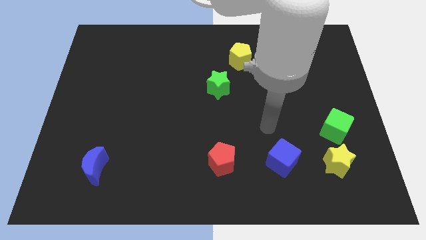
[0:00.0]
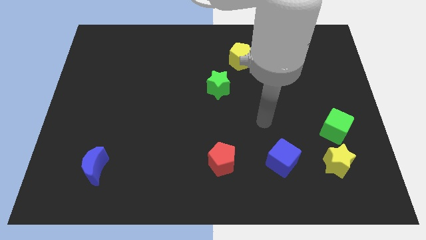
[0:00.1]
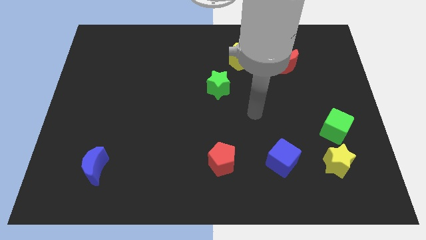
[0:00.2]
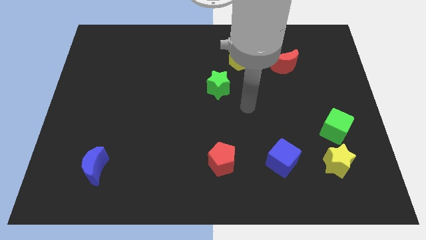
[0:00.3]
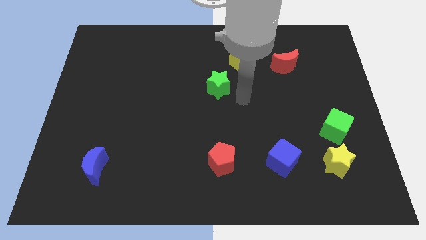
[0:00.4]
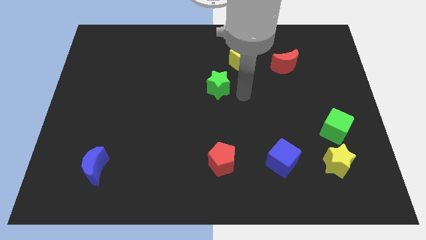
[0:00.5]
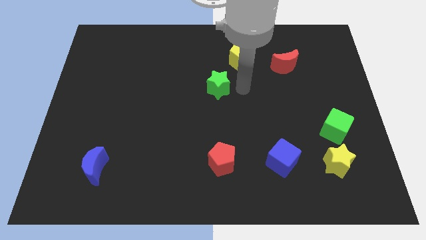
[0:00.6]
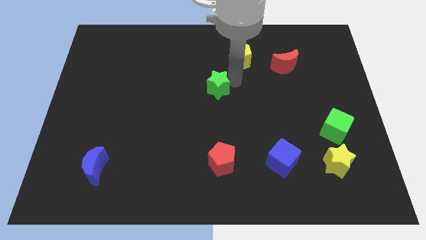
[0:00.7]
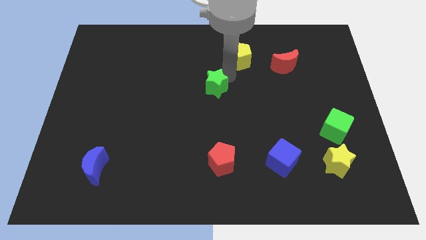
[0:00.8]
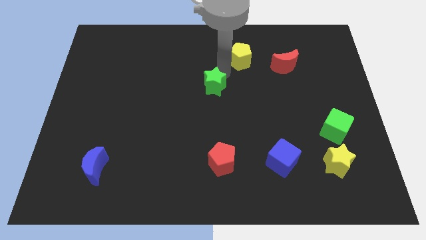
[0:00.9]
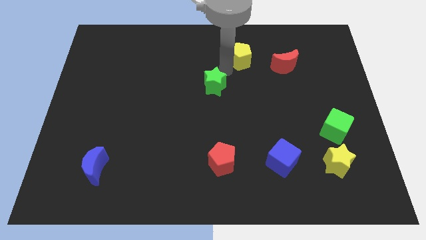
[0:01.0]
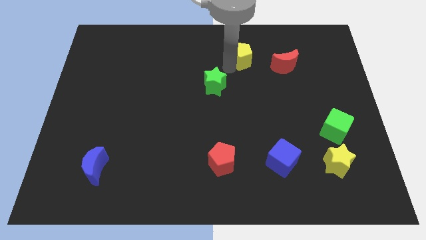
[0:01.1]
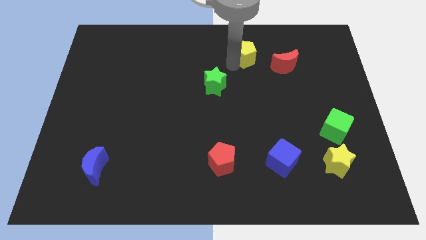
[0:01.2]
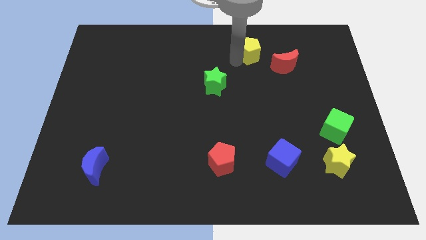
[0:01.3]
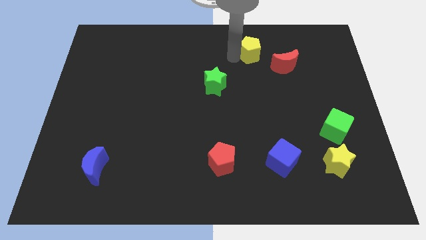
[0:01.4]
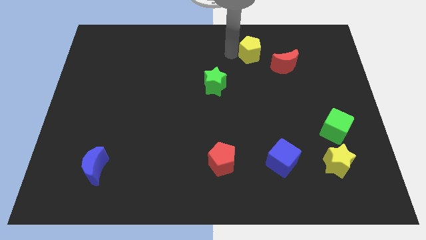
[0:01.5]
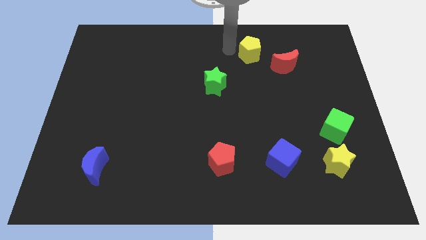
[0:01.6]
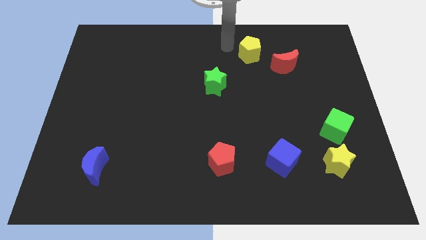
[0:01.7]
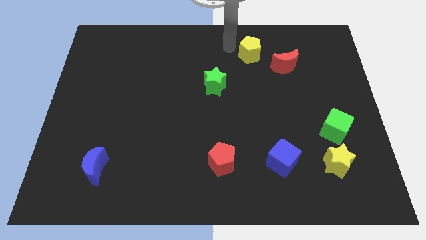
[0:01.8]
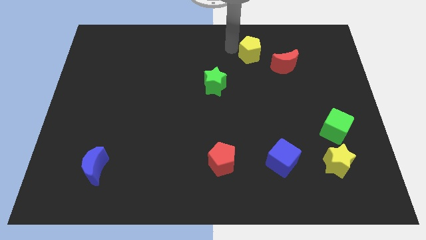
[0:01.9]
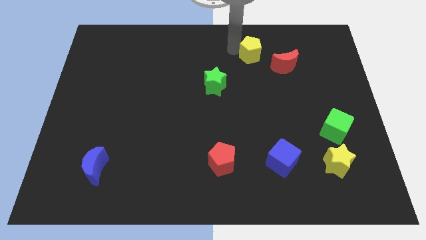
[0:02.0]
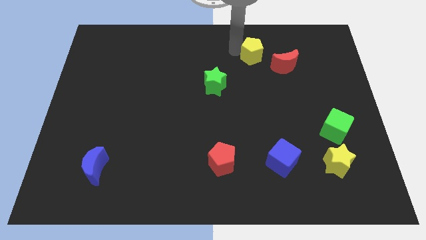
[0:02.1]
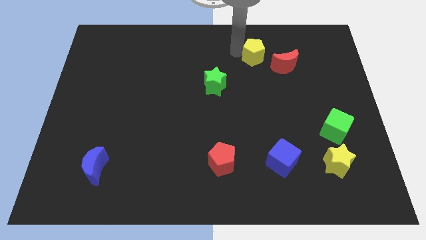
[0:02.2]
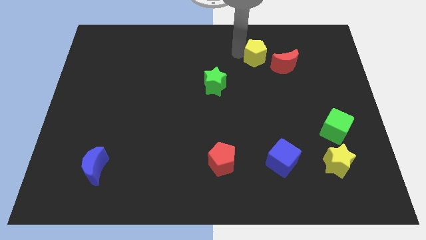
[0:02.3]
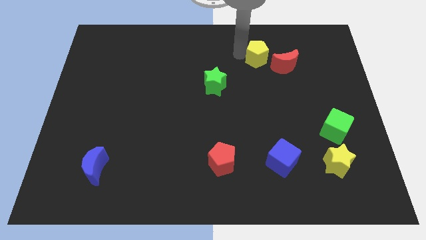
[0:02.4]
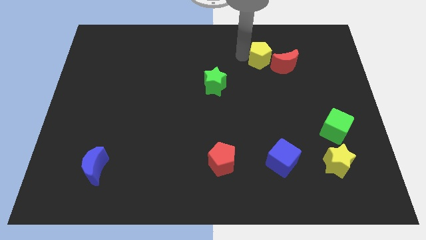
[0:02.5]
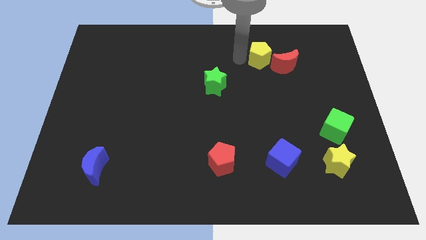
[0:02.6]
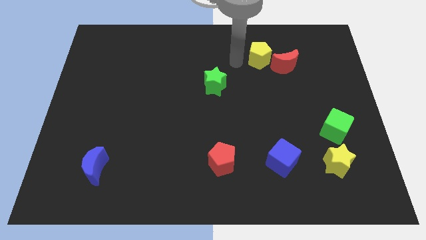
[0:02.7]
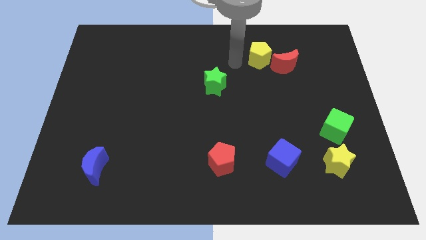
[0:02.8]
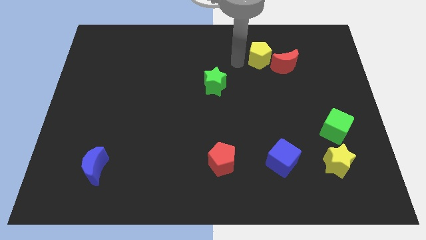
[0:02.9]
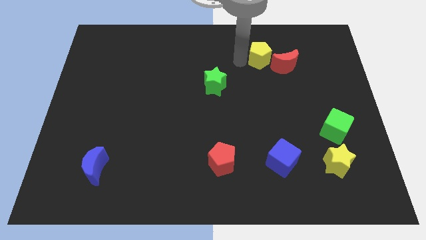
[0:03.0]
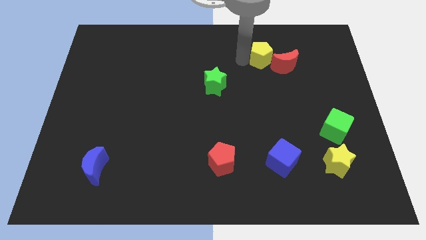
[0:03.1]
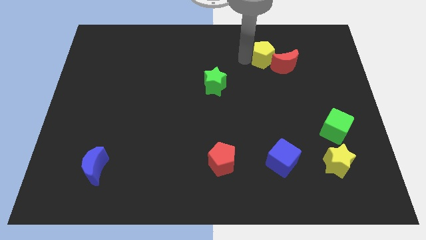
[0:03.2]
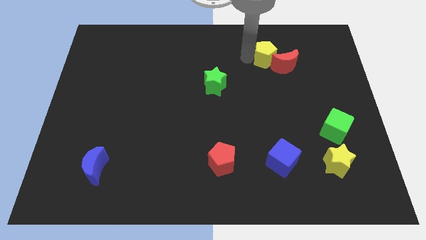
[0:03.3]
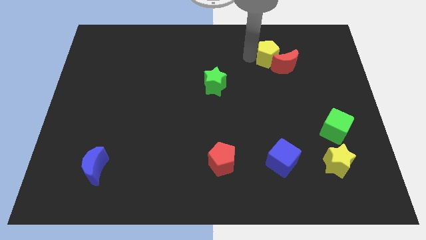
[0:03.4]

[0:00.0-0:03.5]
move the yellow pentagon a little right

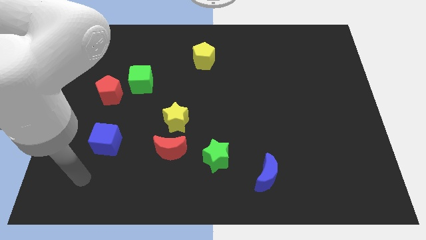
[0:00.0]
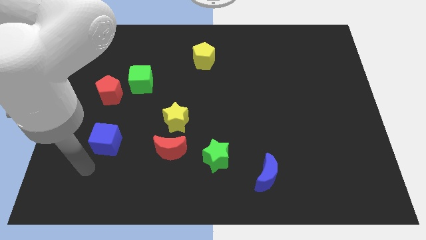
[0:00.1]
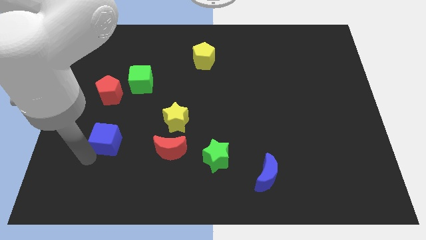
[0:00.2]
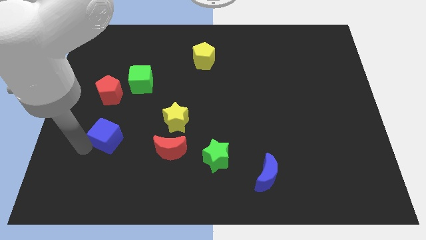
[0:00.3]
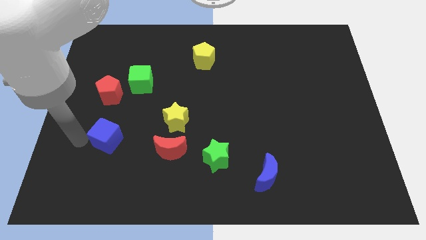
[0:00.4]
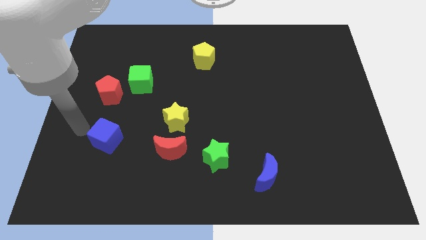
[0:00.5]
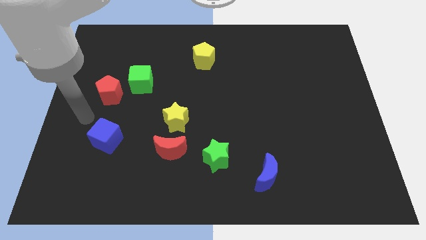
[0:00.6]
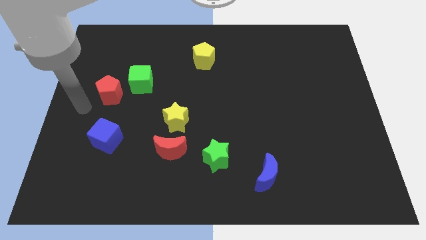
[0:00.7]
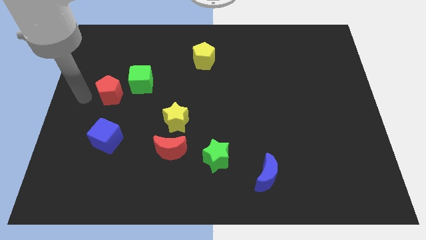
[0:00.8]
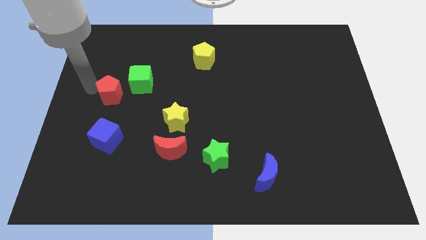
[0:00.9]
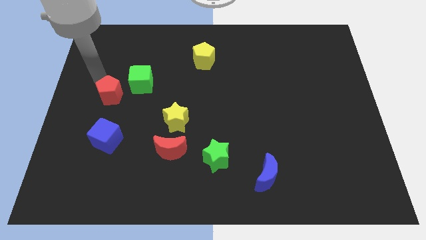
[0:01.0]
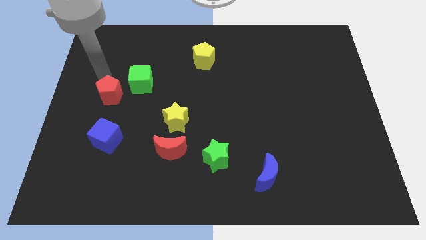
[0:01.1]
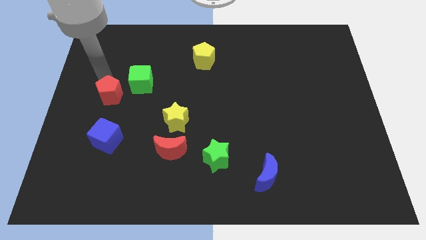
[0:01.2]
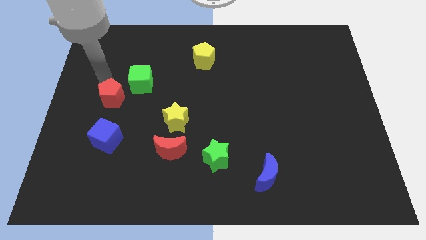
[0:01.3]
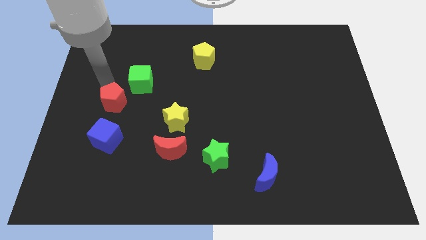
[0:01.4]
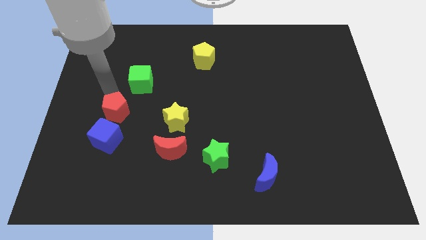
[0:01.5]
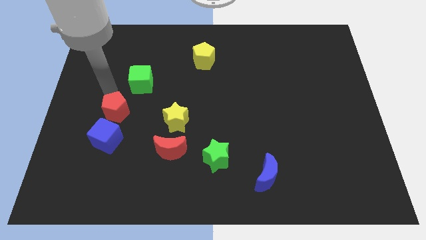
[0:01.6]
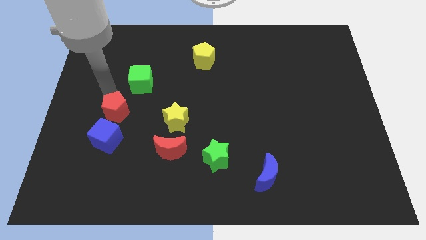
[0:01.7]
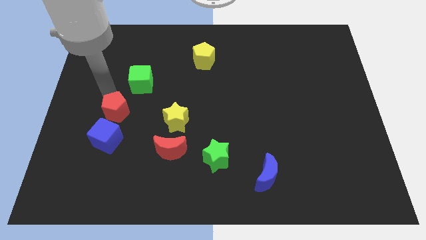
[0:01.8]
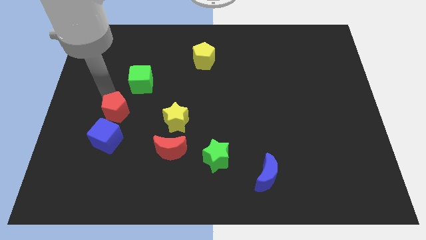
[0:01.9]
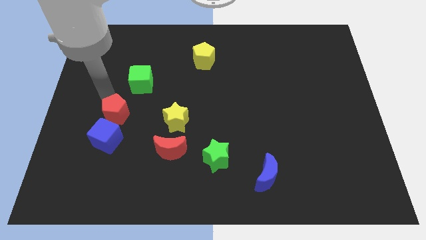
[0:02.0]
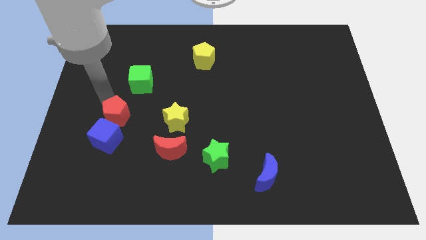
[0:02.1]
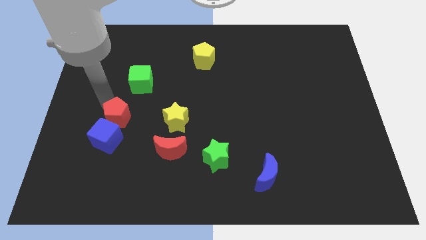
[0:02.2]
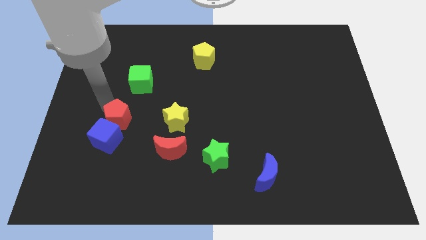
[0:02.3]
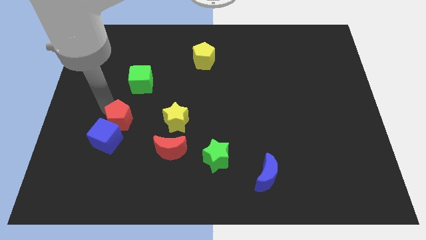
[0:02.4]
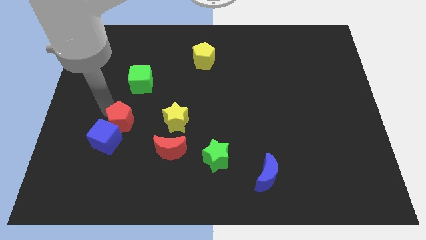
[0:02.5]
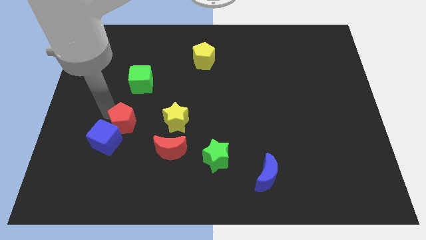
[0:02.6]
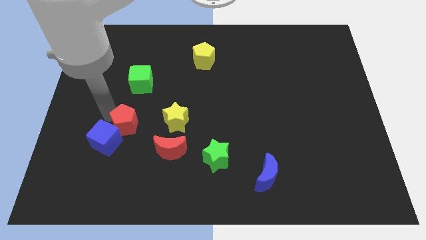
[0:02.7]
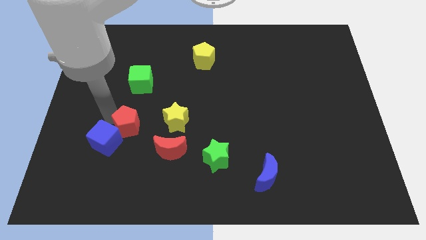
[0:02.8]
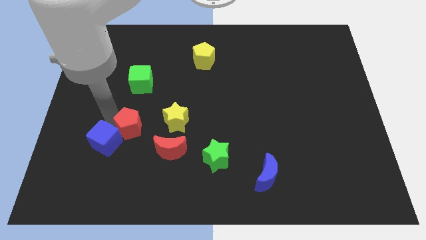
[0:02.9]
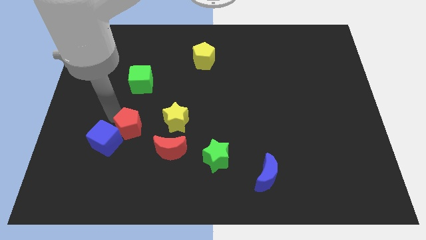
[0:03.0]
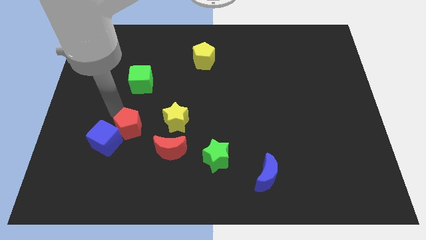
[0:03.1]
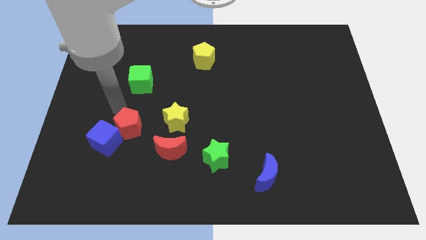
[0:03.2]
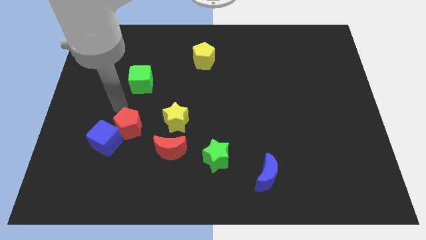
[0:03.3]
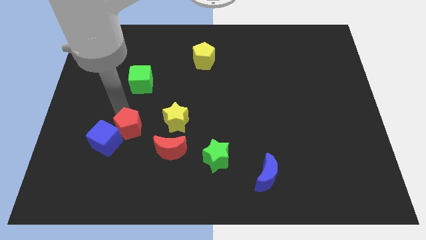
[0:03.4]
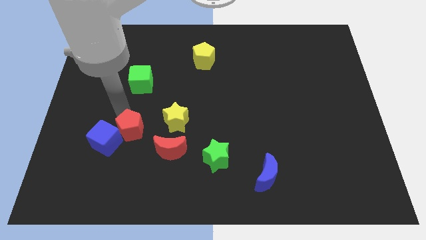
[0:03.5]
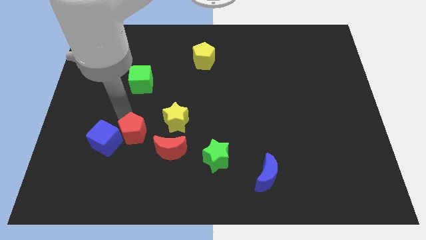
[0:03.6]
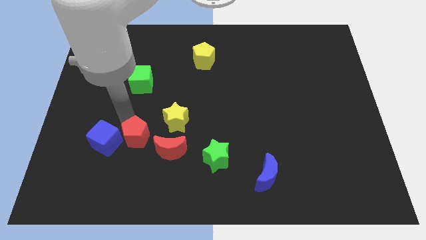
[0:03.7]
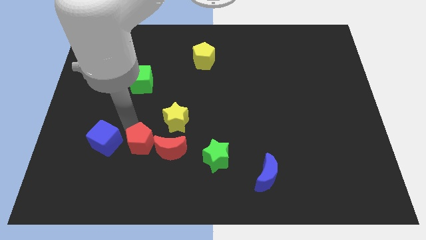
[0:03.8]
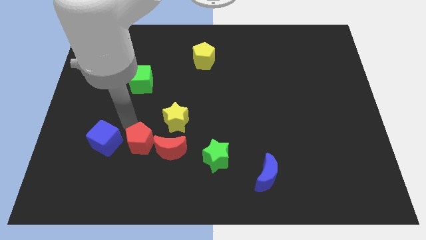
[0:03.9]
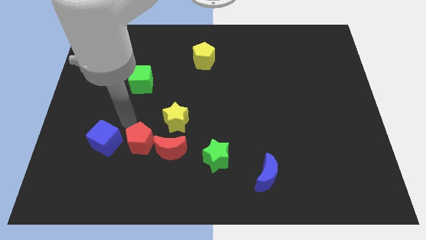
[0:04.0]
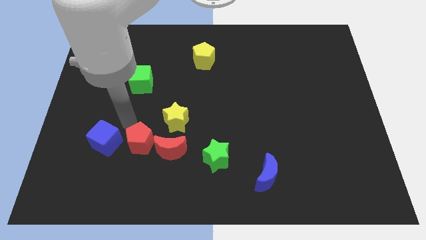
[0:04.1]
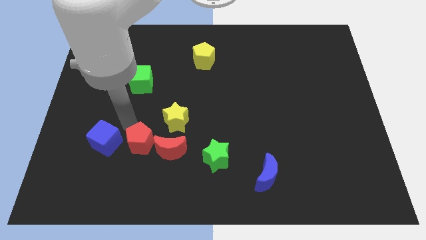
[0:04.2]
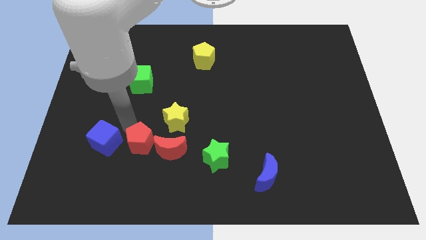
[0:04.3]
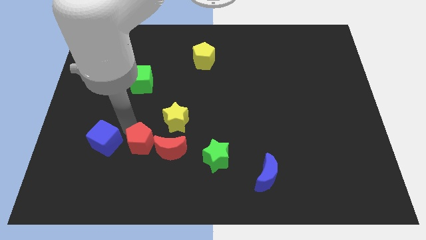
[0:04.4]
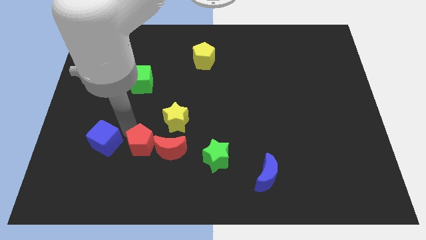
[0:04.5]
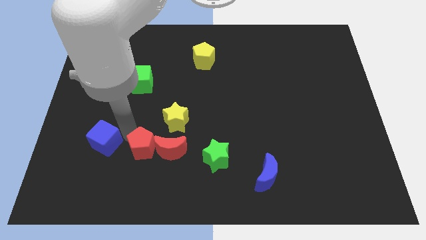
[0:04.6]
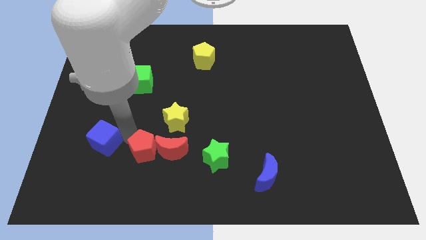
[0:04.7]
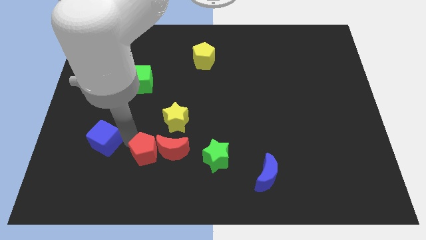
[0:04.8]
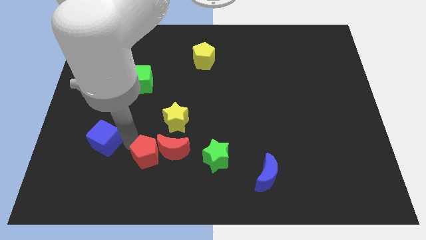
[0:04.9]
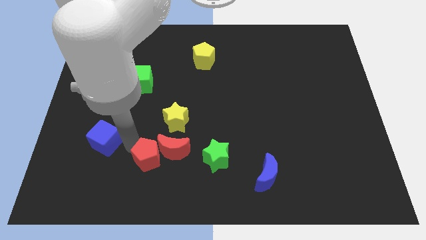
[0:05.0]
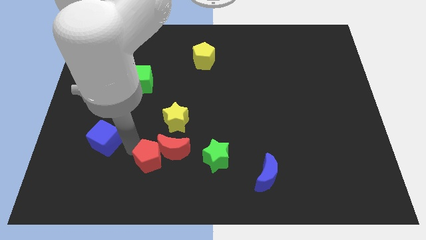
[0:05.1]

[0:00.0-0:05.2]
slide the red pentagon down and right

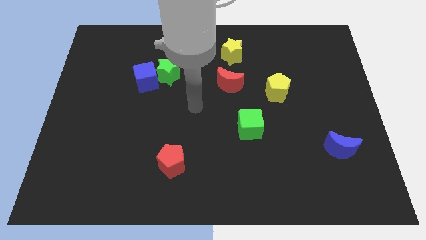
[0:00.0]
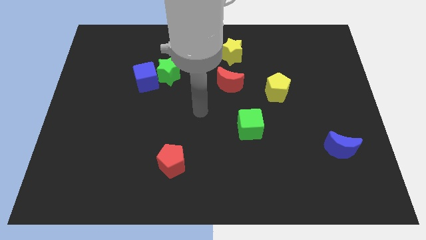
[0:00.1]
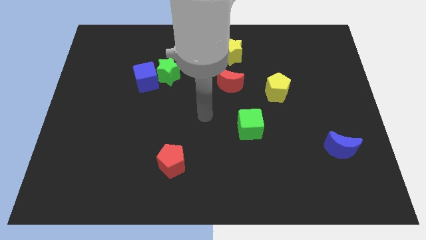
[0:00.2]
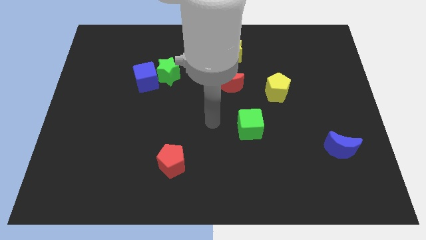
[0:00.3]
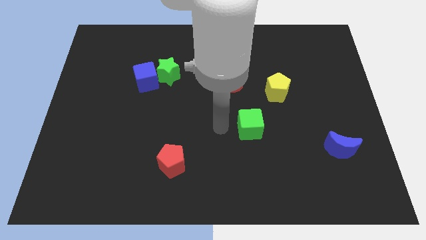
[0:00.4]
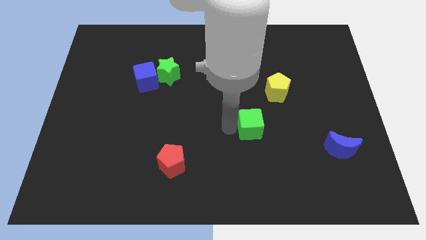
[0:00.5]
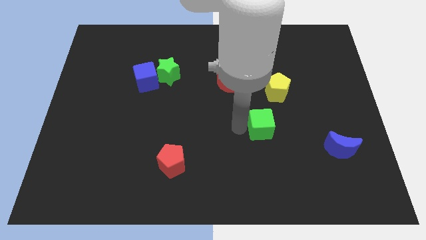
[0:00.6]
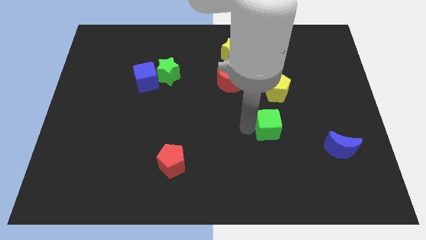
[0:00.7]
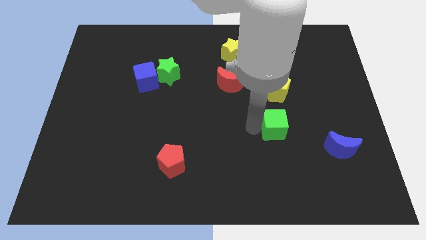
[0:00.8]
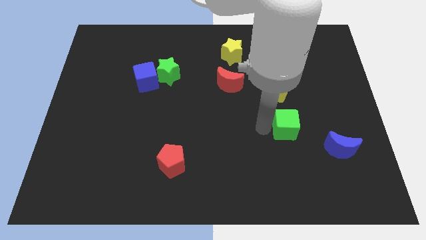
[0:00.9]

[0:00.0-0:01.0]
move the green cube a bit to the right
